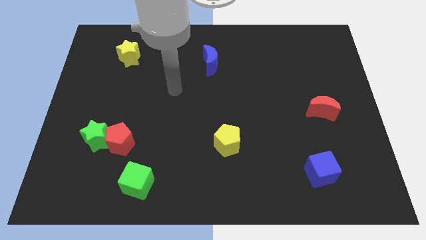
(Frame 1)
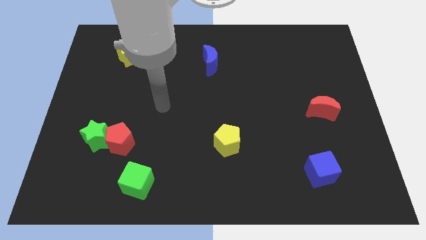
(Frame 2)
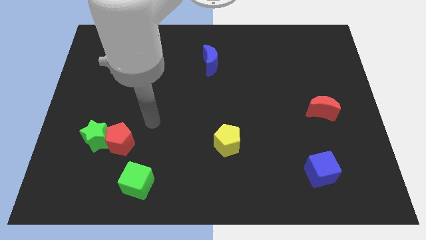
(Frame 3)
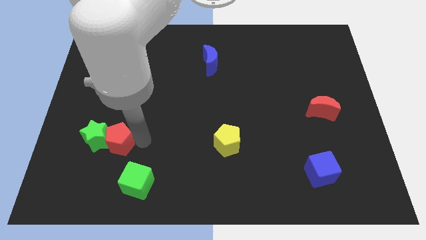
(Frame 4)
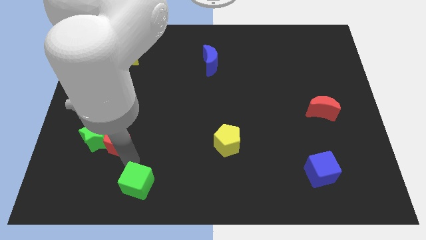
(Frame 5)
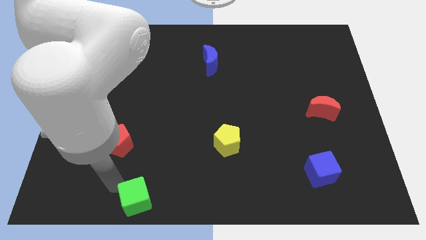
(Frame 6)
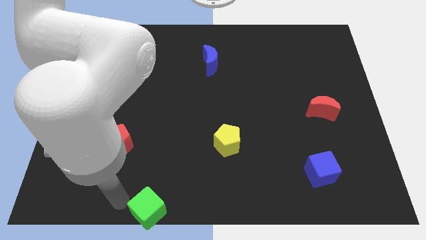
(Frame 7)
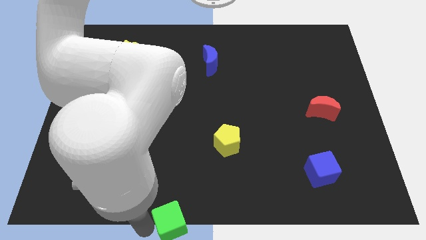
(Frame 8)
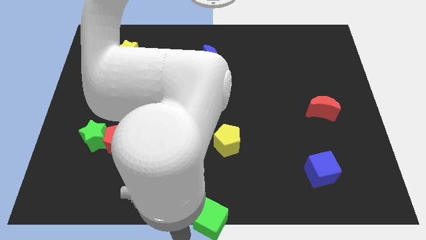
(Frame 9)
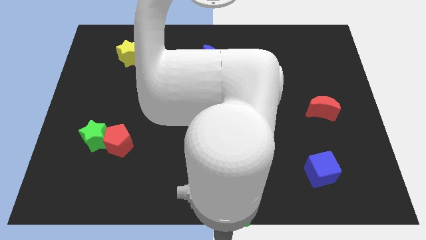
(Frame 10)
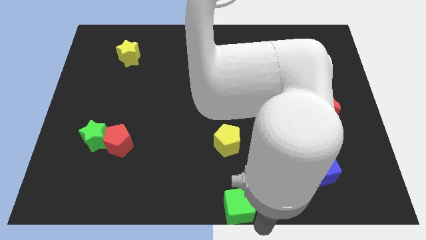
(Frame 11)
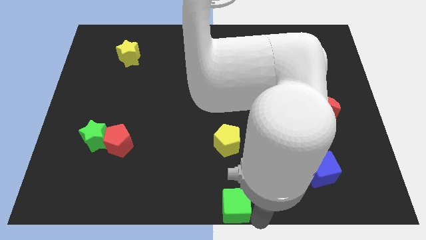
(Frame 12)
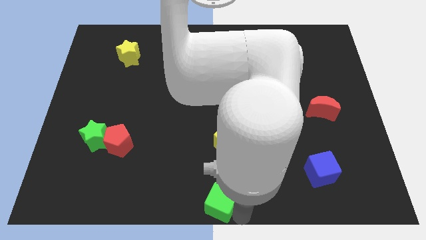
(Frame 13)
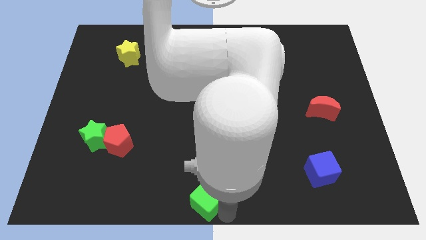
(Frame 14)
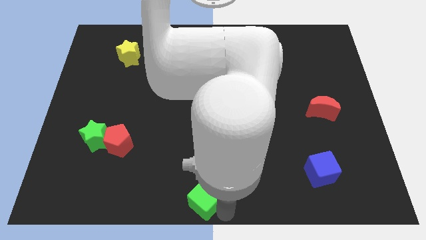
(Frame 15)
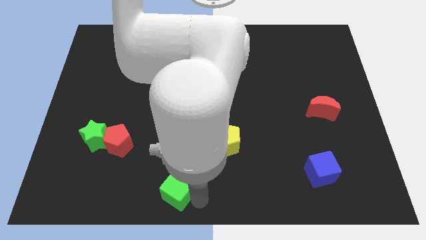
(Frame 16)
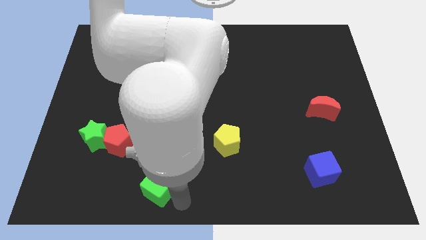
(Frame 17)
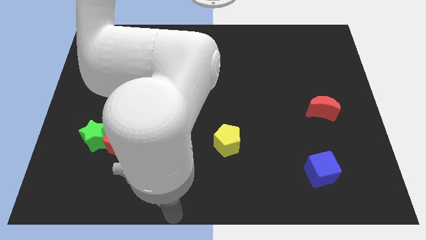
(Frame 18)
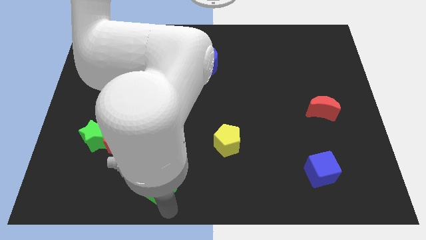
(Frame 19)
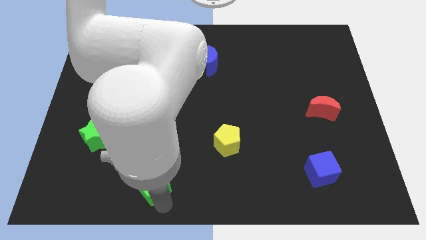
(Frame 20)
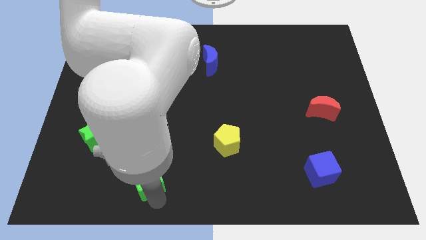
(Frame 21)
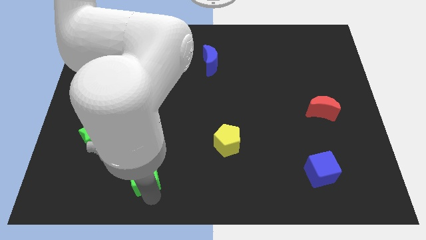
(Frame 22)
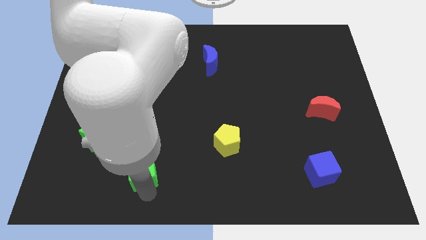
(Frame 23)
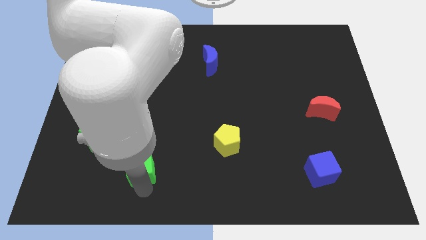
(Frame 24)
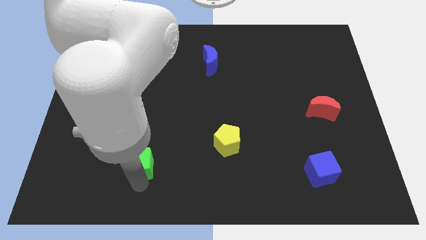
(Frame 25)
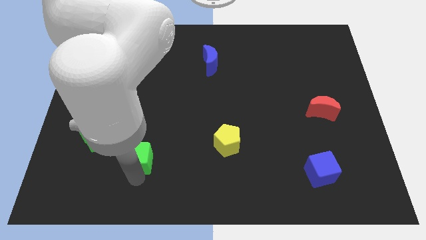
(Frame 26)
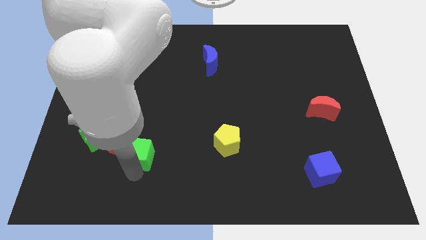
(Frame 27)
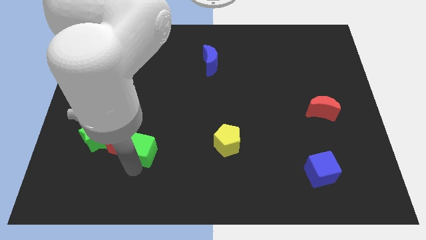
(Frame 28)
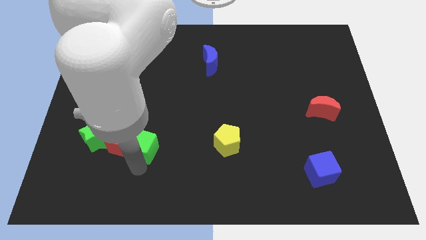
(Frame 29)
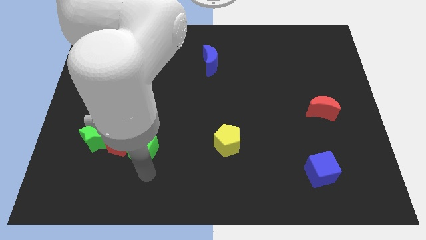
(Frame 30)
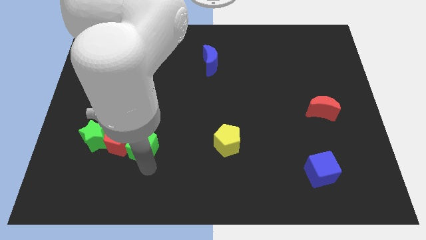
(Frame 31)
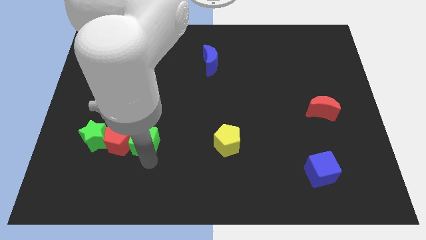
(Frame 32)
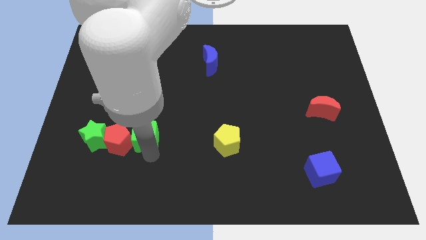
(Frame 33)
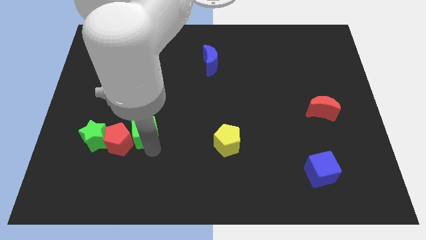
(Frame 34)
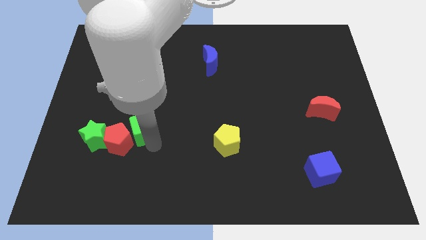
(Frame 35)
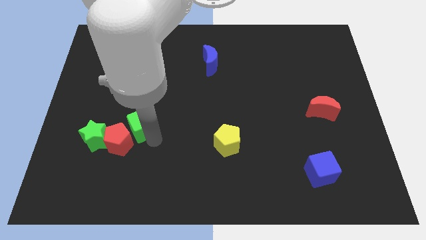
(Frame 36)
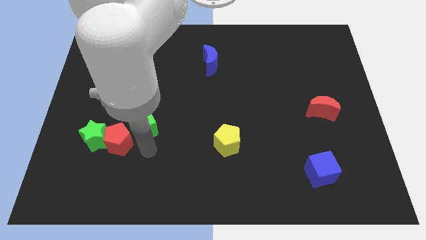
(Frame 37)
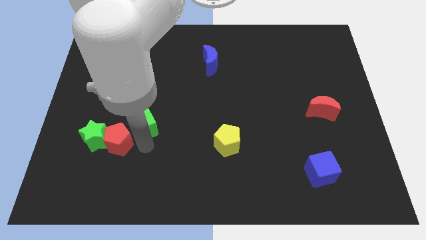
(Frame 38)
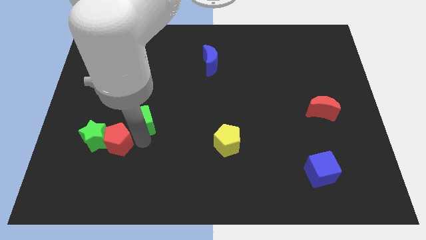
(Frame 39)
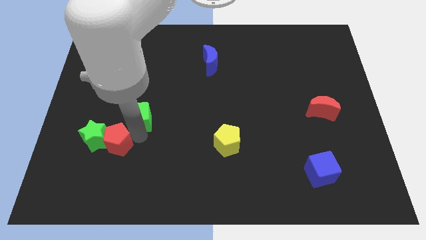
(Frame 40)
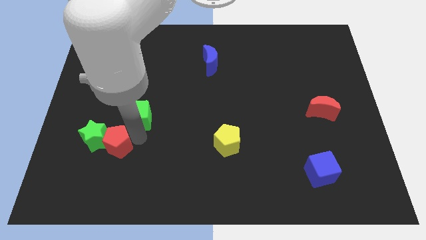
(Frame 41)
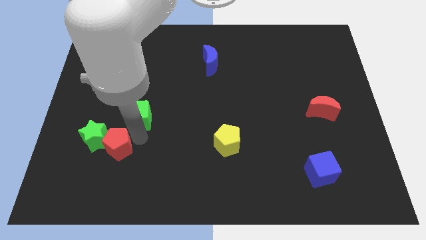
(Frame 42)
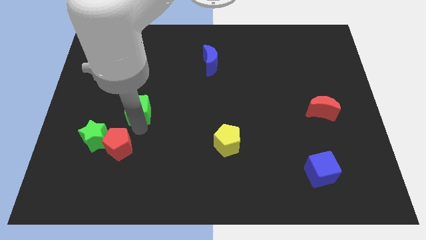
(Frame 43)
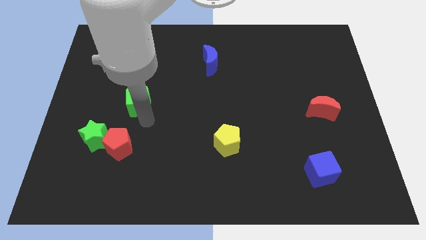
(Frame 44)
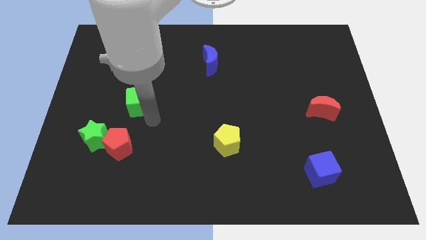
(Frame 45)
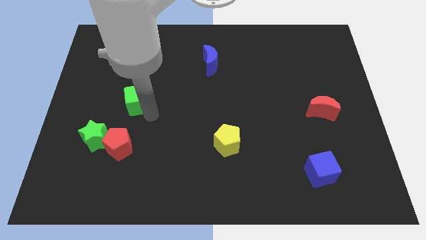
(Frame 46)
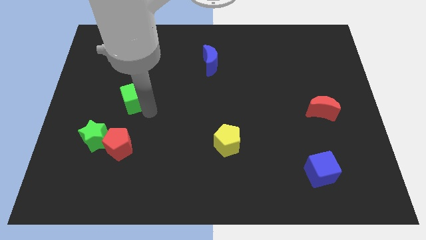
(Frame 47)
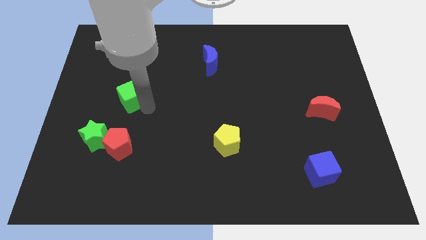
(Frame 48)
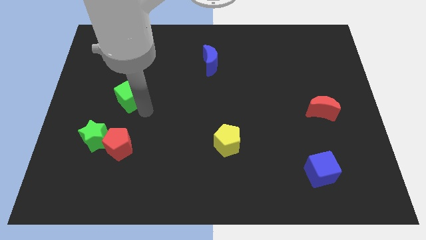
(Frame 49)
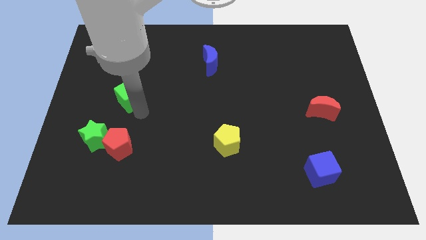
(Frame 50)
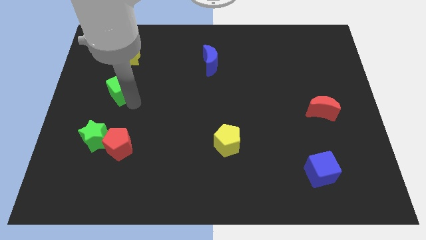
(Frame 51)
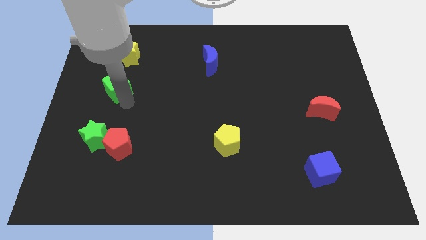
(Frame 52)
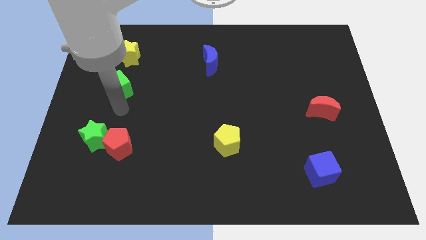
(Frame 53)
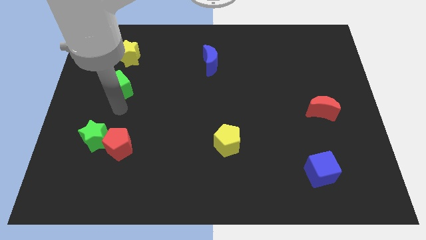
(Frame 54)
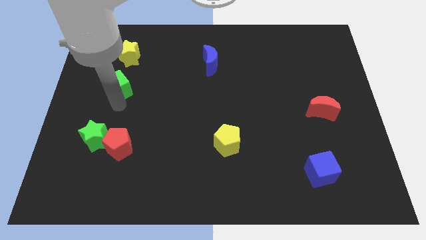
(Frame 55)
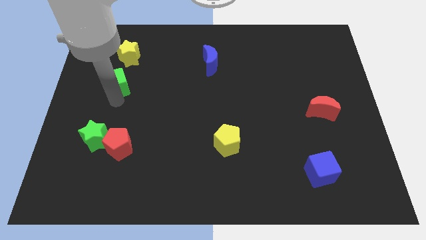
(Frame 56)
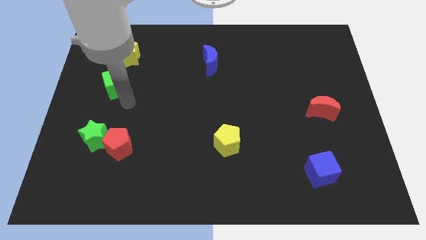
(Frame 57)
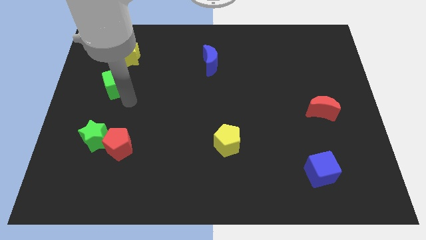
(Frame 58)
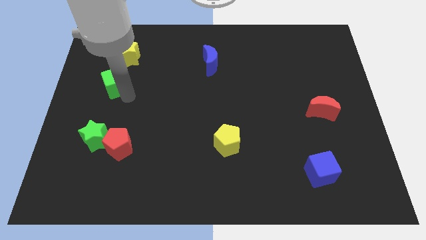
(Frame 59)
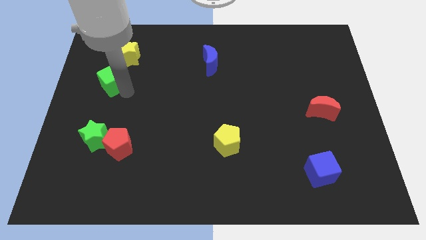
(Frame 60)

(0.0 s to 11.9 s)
move the green cube to the bottom left of the yellow star

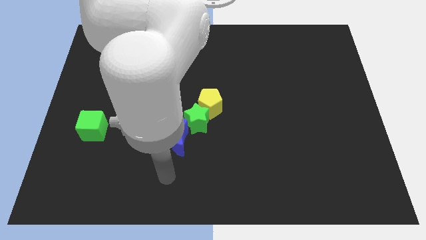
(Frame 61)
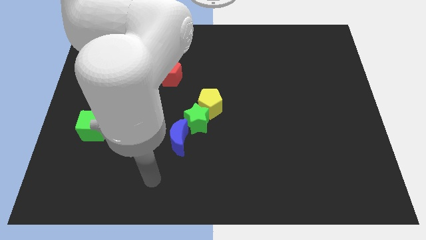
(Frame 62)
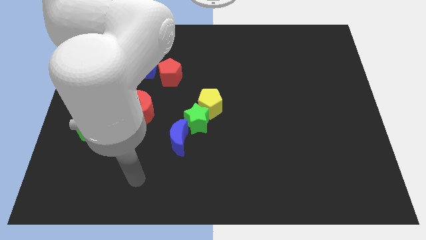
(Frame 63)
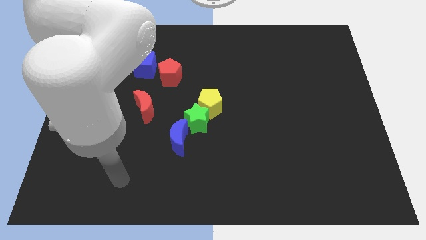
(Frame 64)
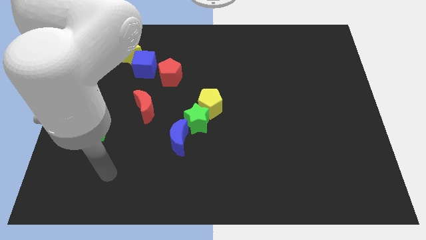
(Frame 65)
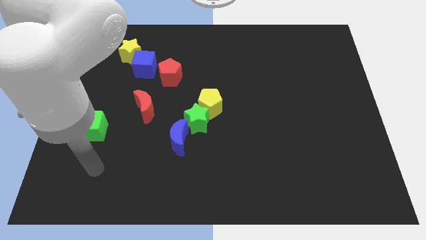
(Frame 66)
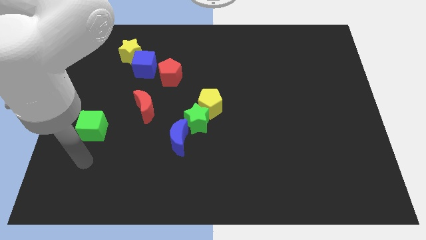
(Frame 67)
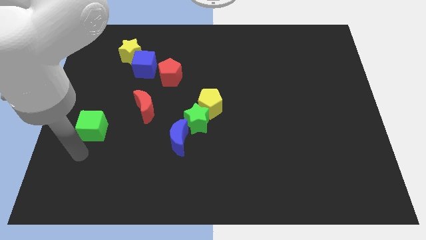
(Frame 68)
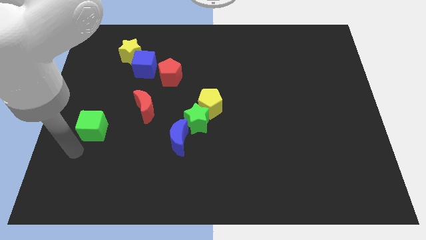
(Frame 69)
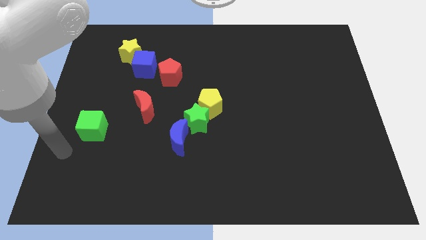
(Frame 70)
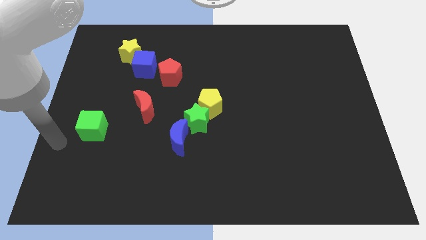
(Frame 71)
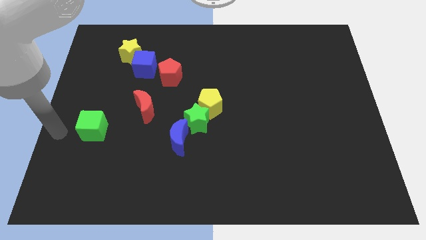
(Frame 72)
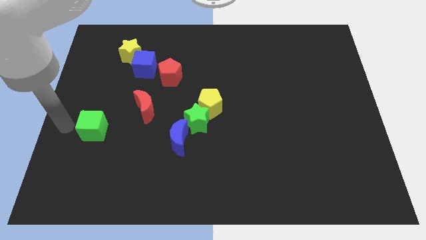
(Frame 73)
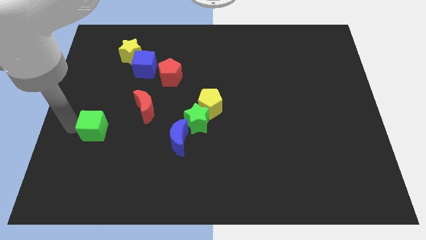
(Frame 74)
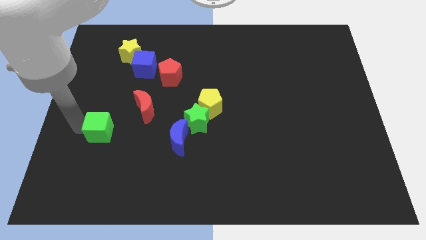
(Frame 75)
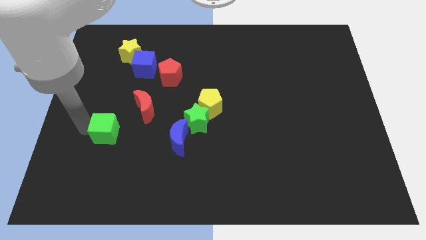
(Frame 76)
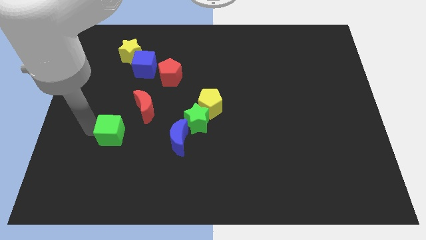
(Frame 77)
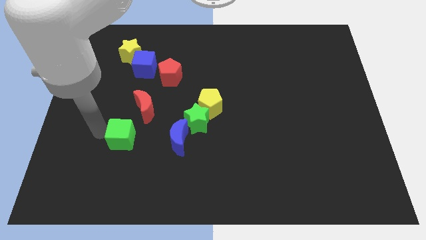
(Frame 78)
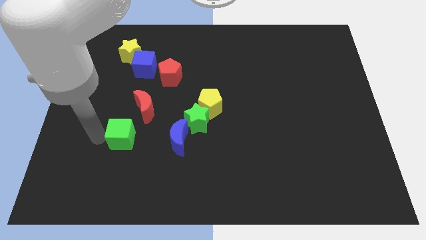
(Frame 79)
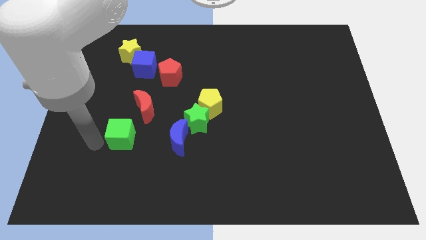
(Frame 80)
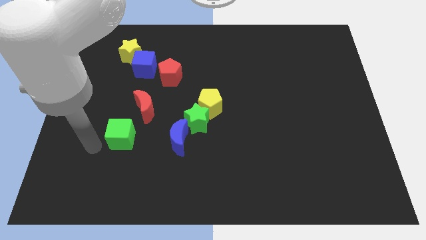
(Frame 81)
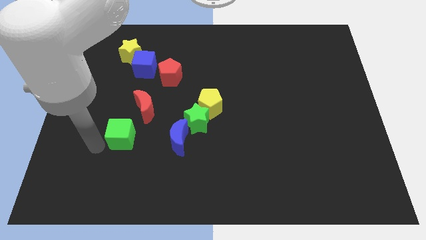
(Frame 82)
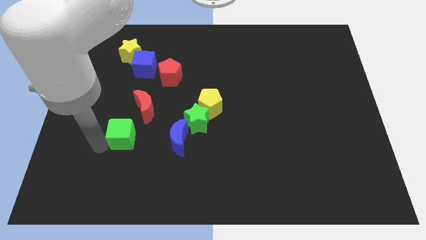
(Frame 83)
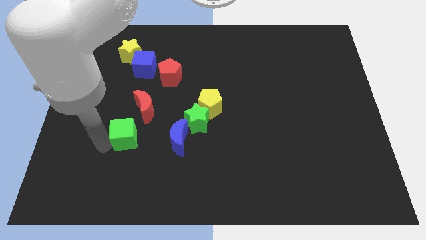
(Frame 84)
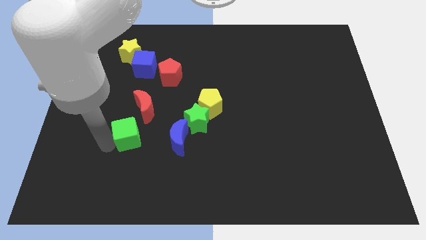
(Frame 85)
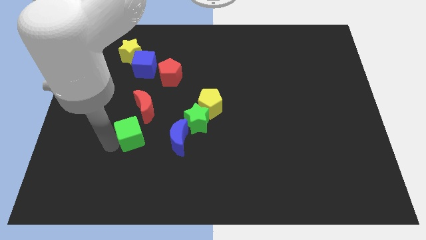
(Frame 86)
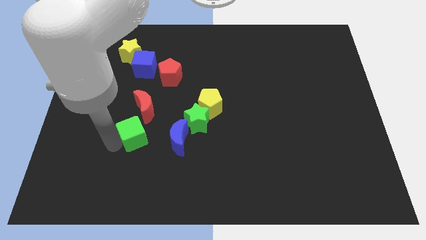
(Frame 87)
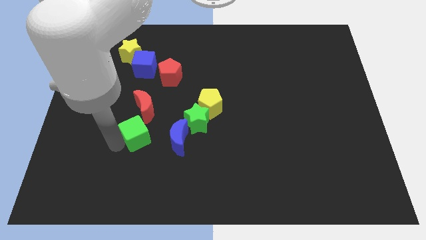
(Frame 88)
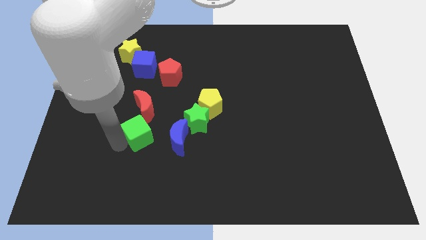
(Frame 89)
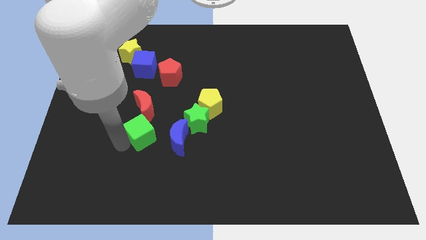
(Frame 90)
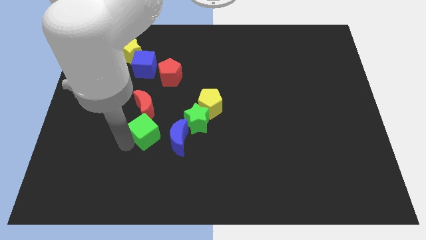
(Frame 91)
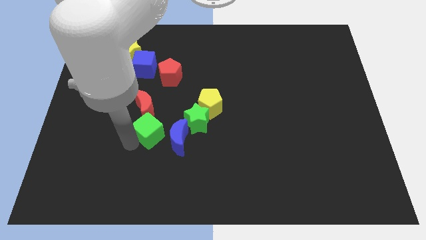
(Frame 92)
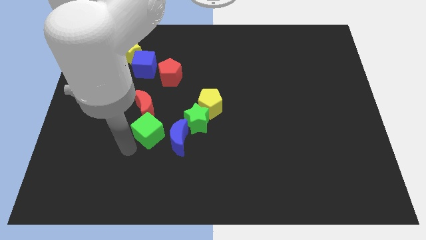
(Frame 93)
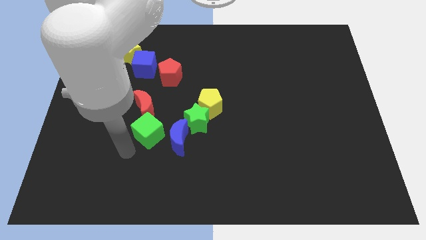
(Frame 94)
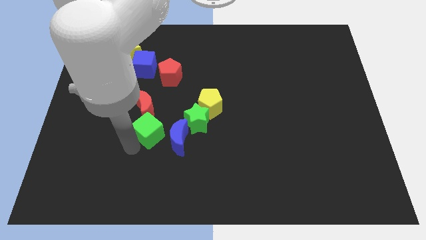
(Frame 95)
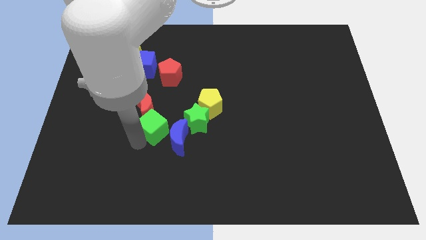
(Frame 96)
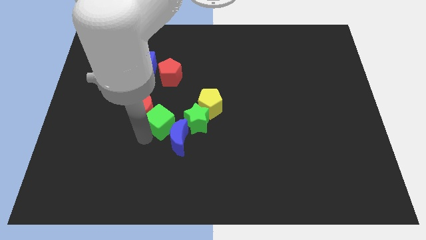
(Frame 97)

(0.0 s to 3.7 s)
push the green cube to the right of the red moon
